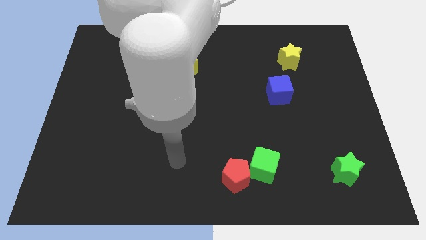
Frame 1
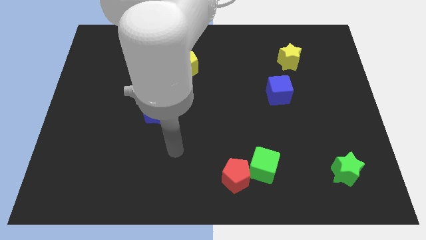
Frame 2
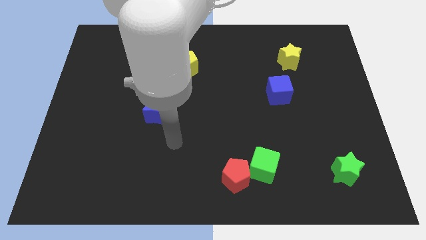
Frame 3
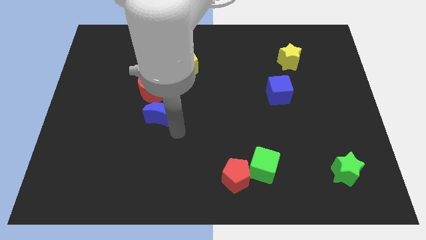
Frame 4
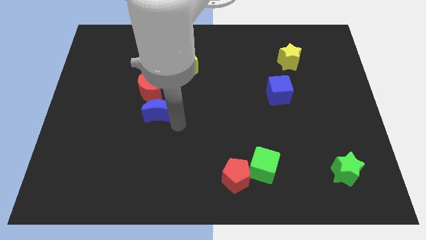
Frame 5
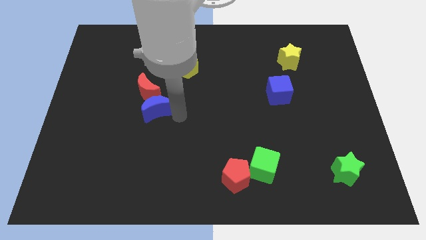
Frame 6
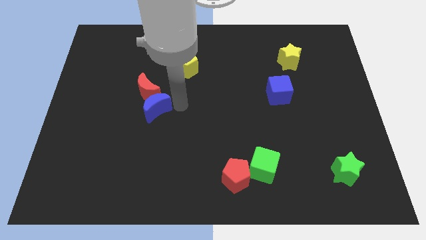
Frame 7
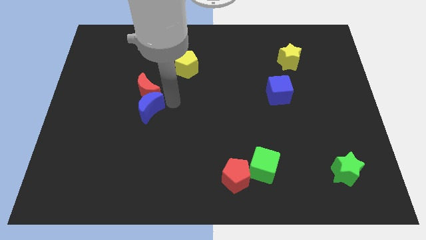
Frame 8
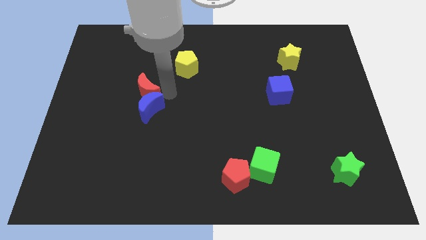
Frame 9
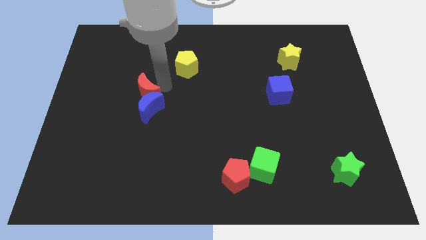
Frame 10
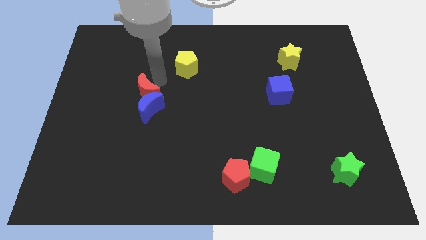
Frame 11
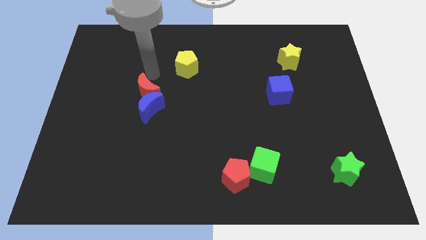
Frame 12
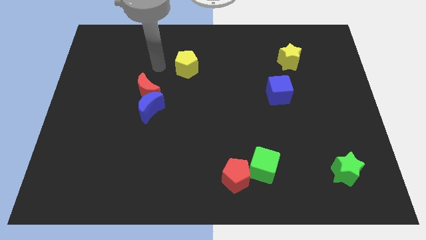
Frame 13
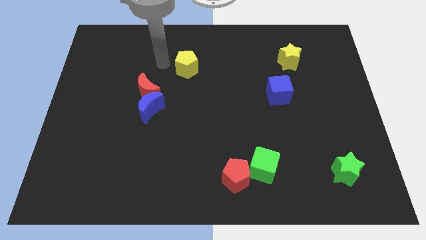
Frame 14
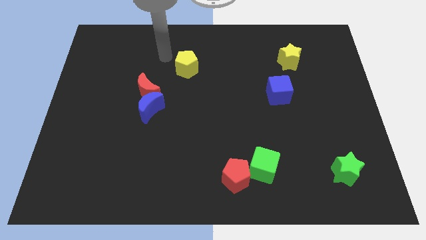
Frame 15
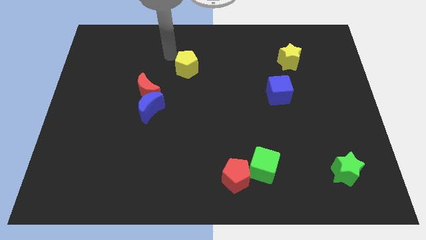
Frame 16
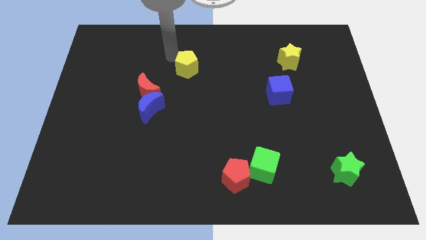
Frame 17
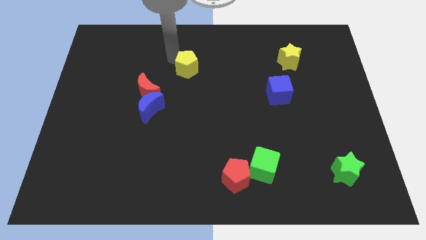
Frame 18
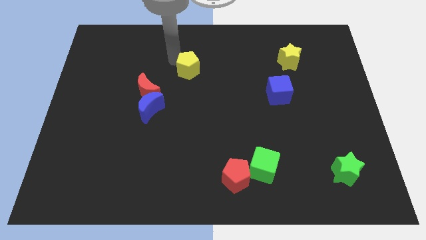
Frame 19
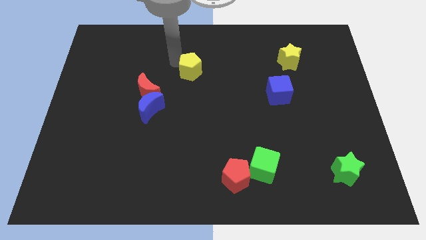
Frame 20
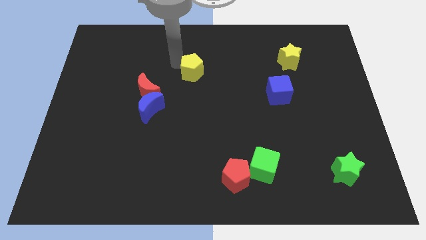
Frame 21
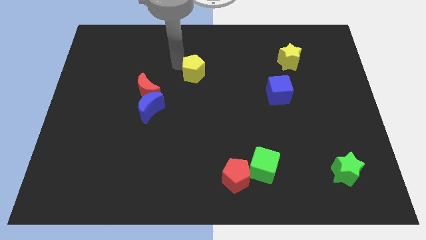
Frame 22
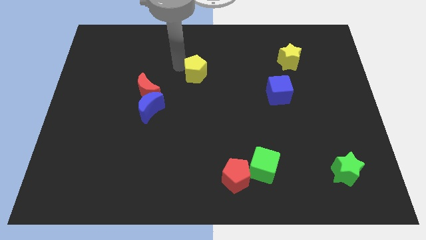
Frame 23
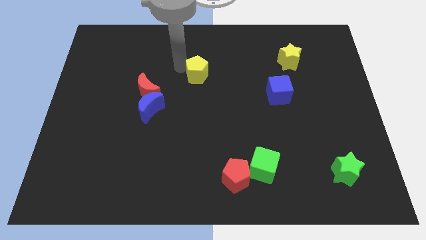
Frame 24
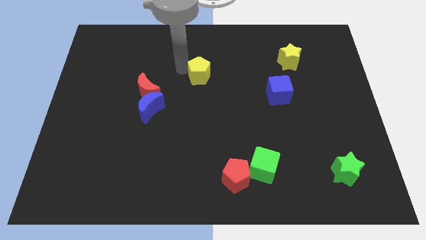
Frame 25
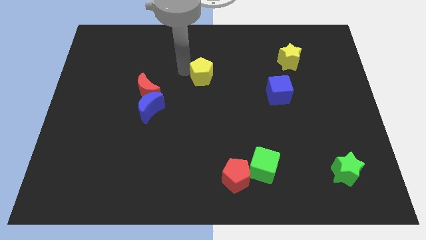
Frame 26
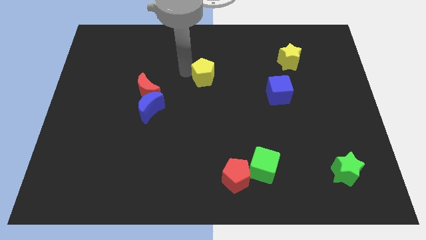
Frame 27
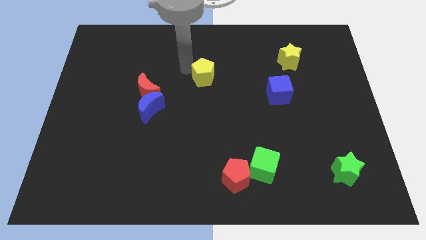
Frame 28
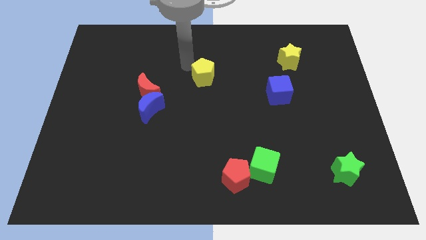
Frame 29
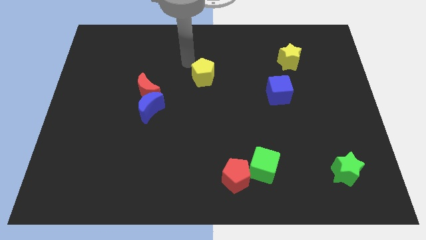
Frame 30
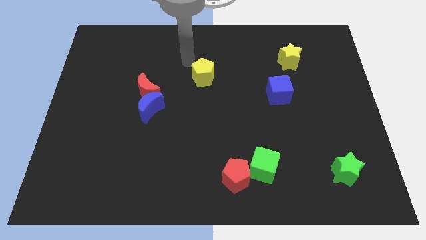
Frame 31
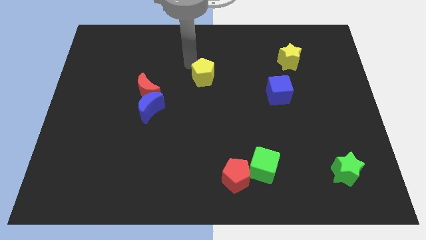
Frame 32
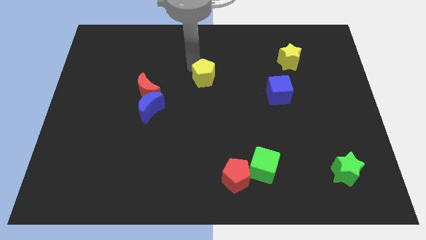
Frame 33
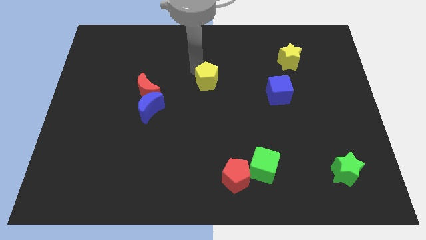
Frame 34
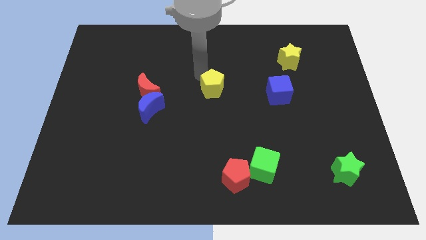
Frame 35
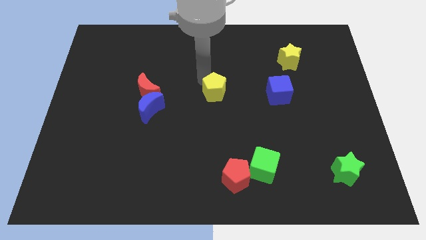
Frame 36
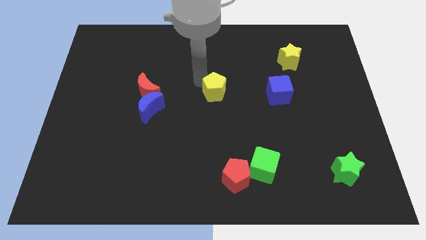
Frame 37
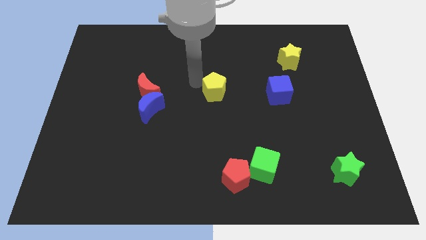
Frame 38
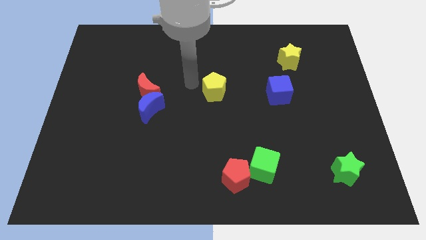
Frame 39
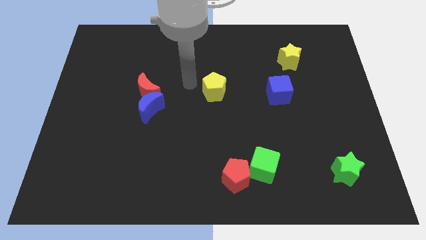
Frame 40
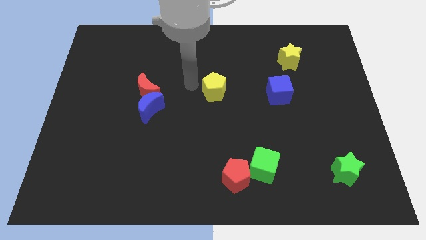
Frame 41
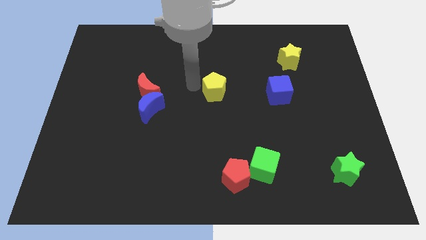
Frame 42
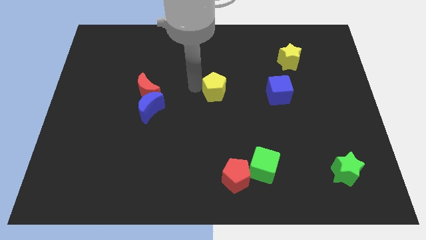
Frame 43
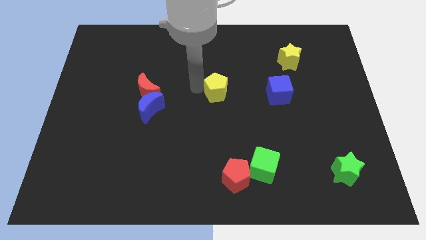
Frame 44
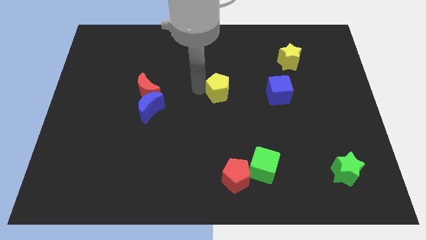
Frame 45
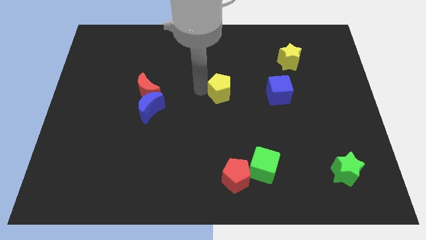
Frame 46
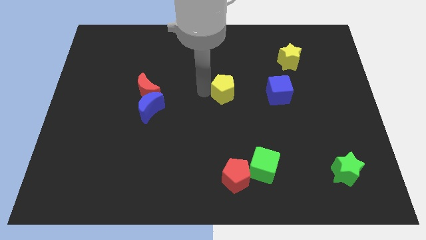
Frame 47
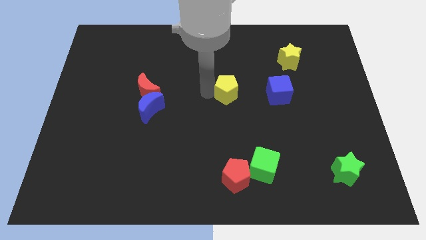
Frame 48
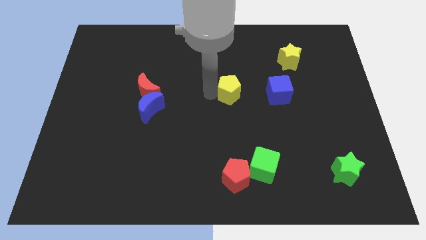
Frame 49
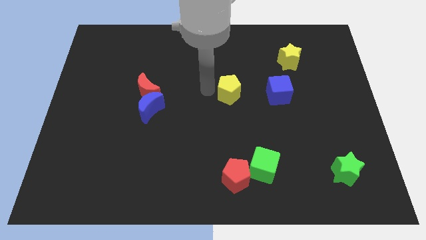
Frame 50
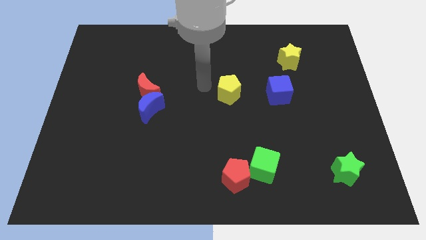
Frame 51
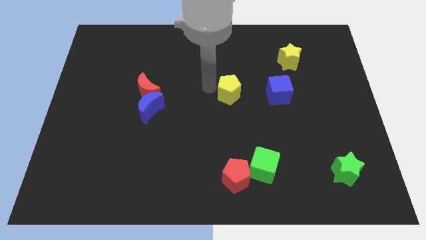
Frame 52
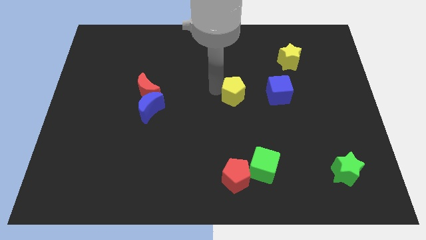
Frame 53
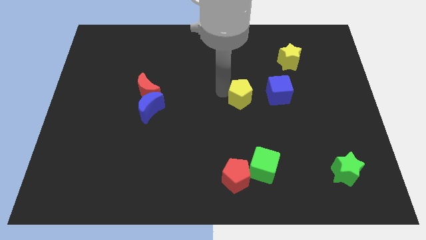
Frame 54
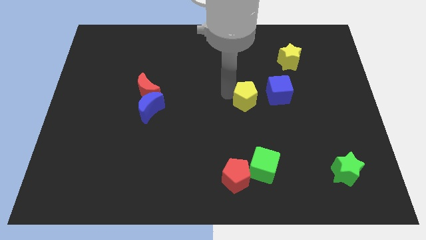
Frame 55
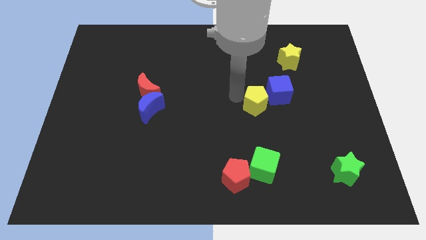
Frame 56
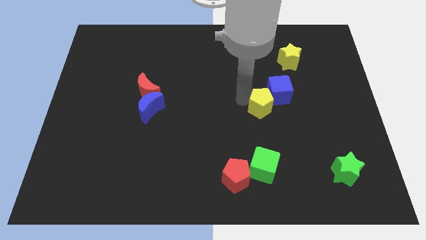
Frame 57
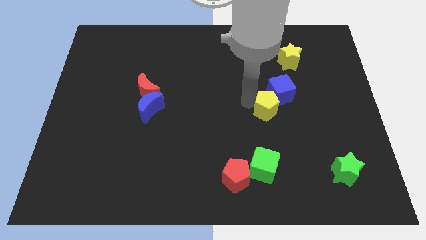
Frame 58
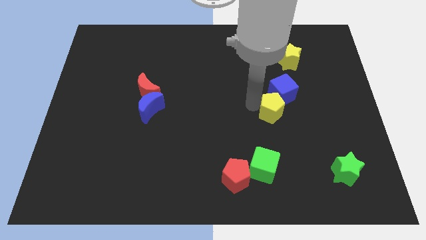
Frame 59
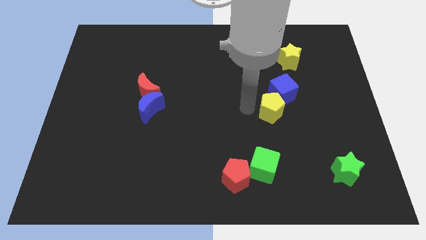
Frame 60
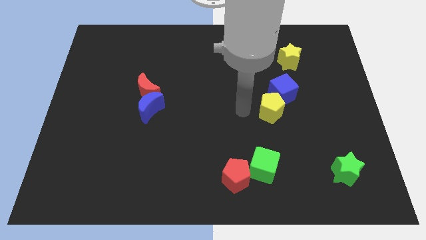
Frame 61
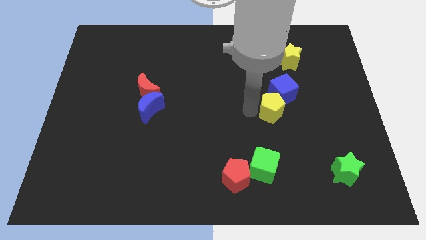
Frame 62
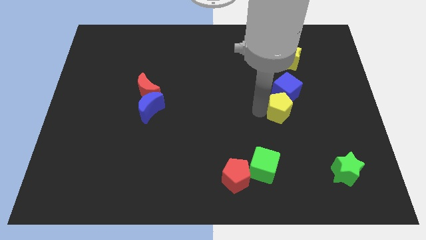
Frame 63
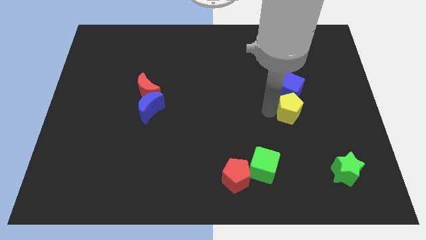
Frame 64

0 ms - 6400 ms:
push the yellow pentagon to the bottom right side of the blue cube
